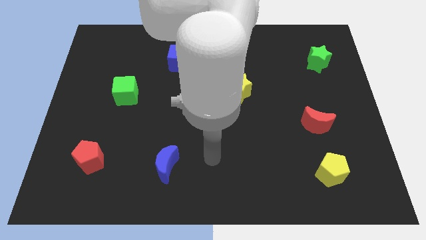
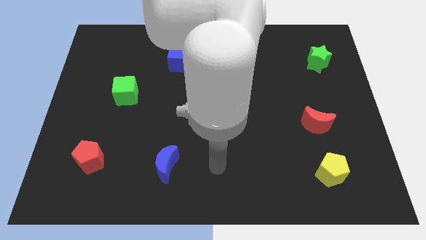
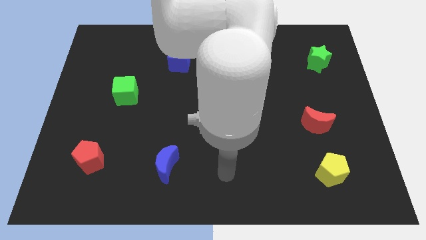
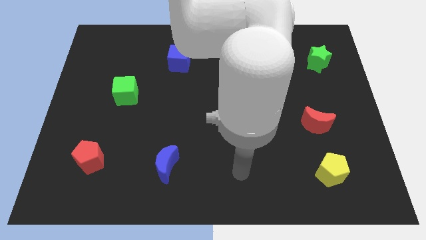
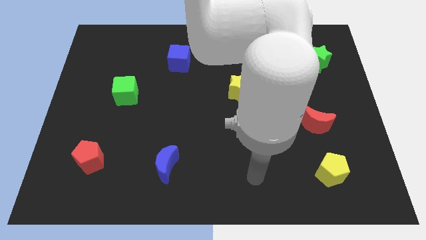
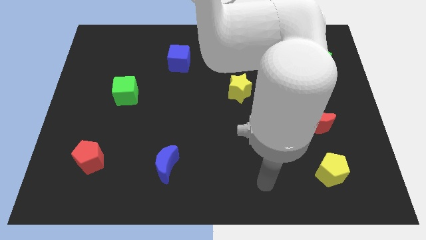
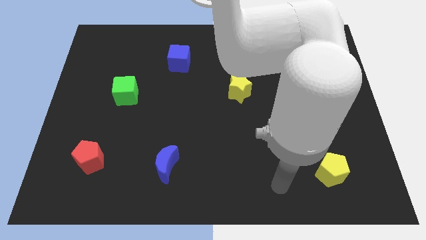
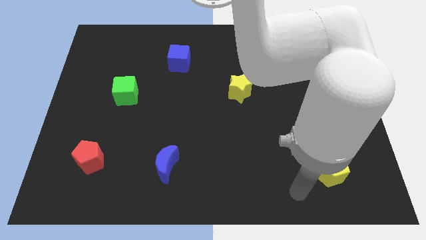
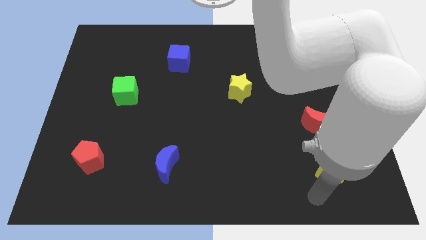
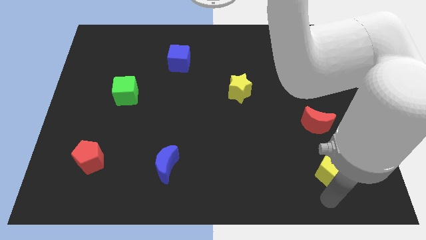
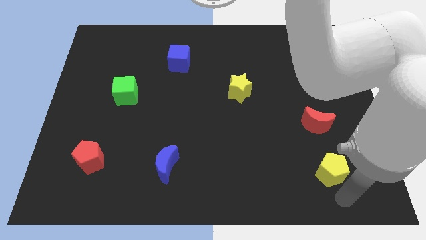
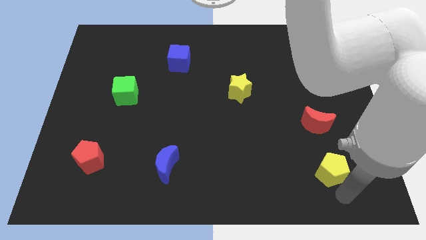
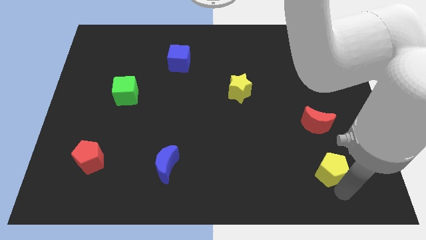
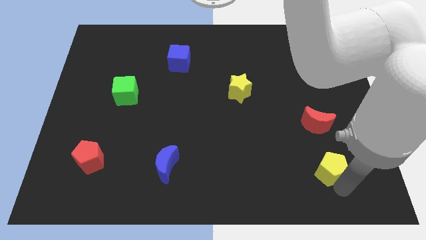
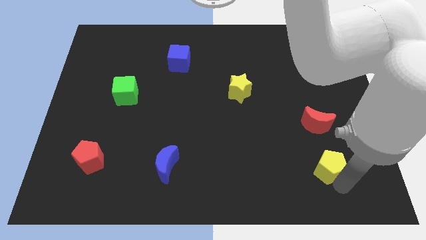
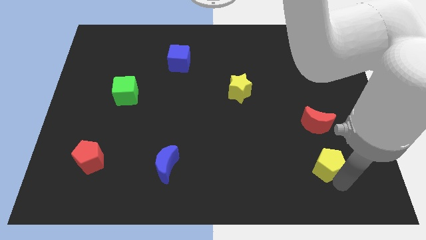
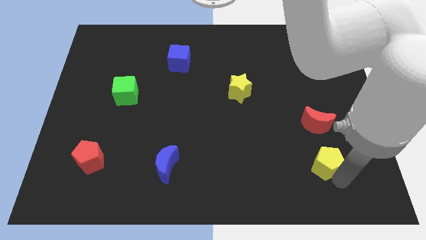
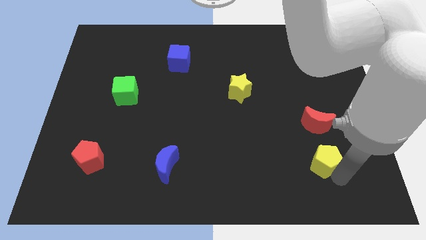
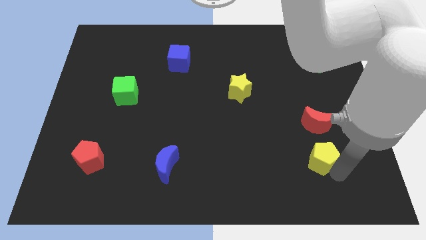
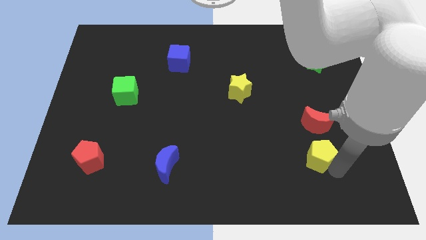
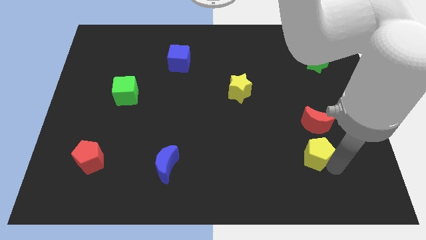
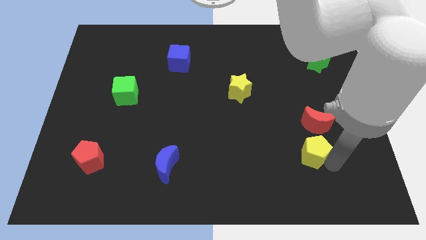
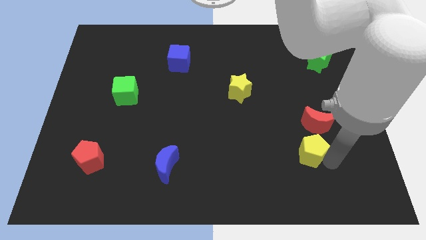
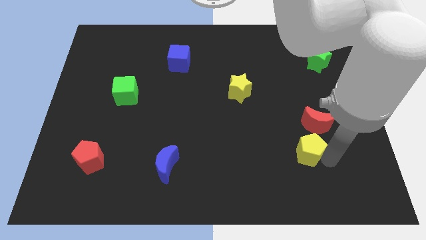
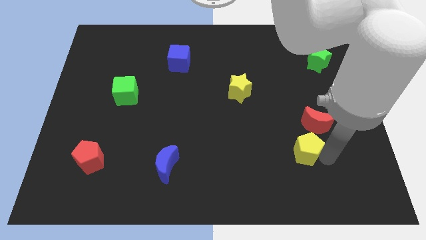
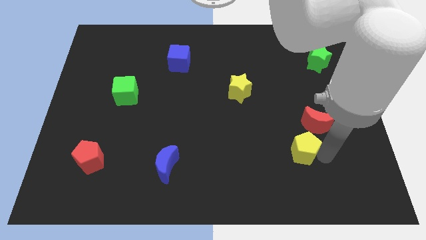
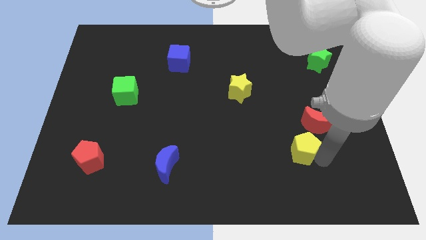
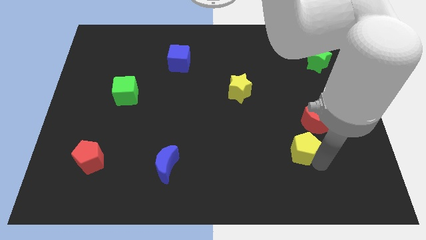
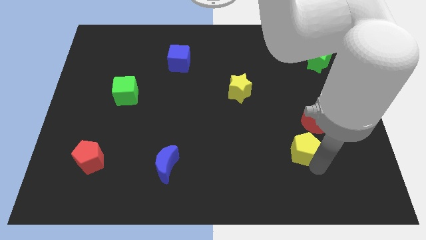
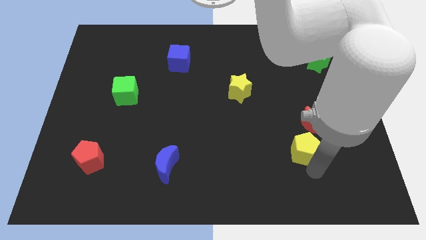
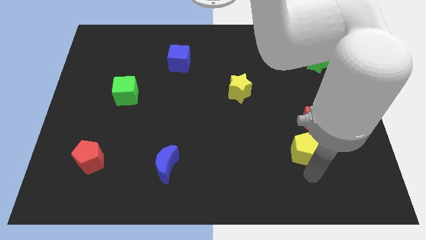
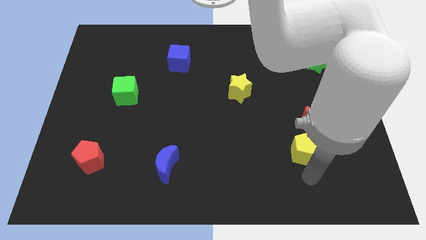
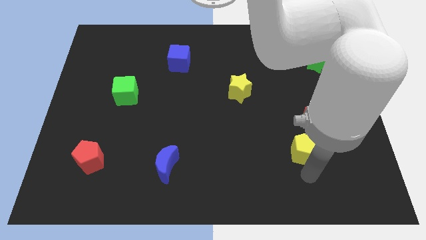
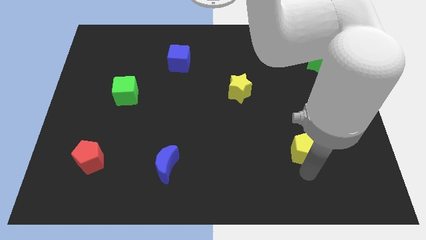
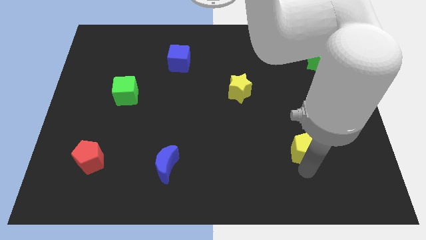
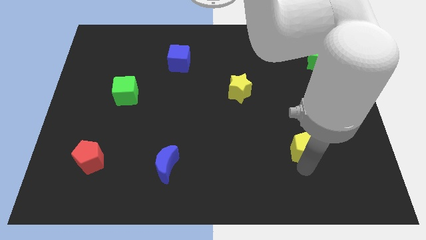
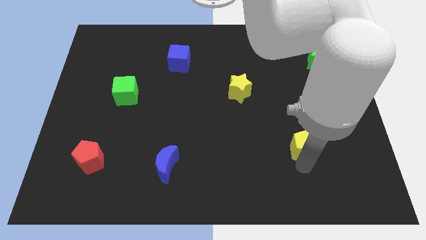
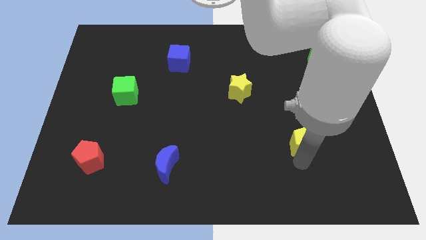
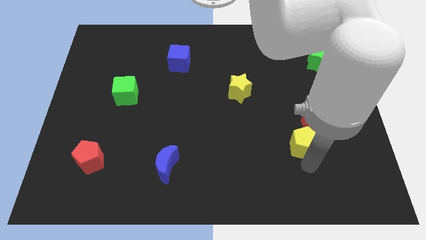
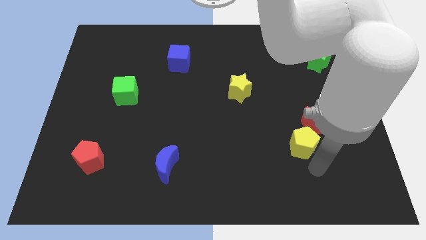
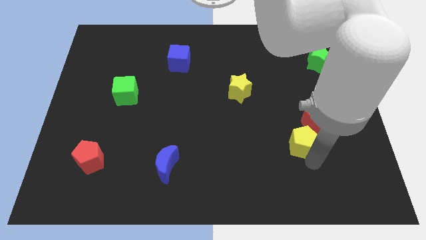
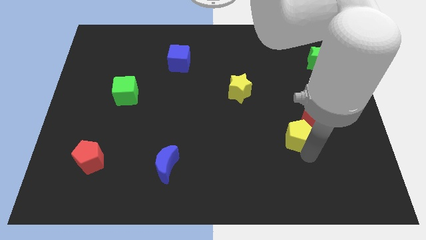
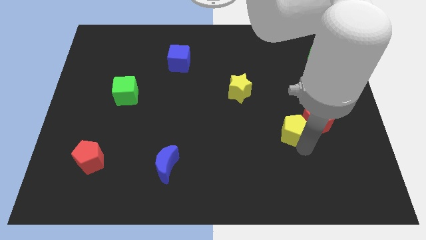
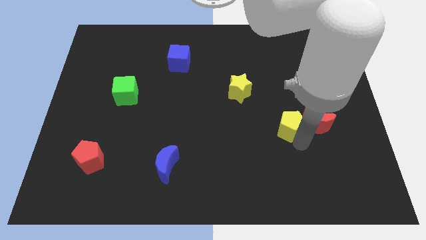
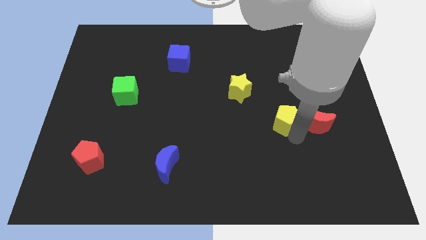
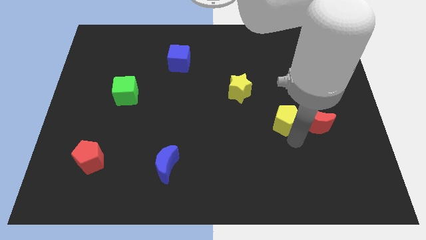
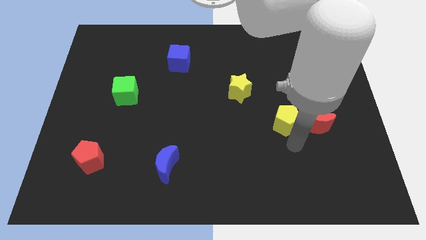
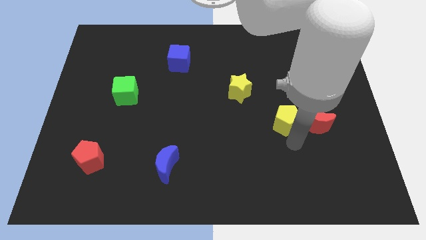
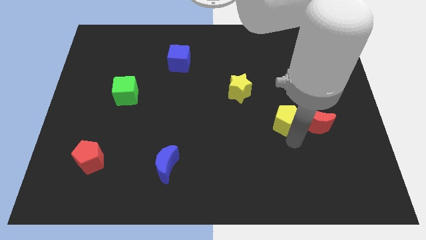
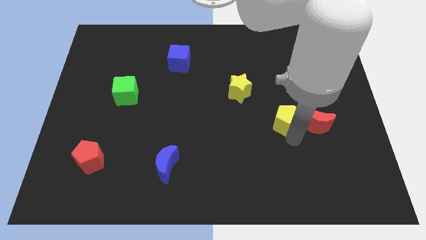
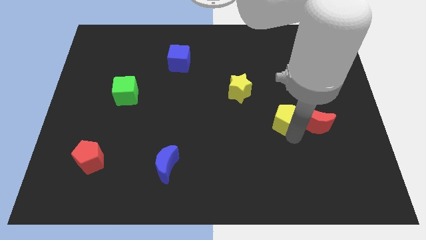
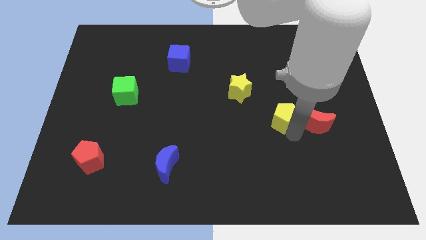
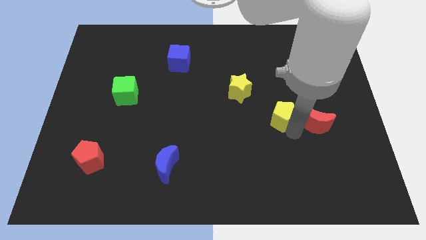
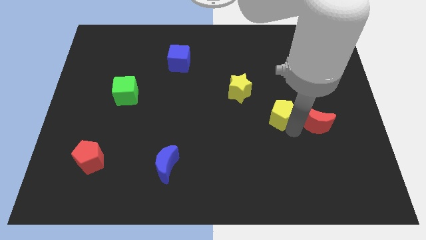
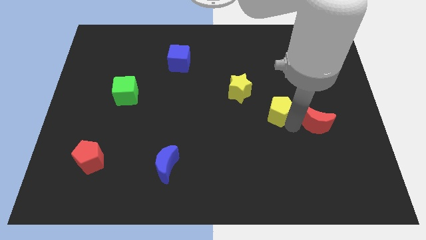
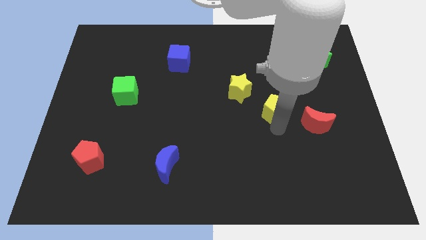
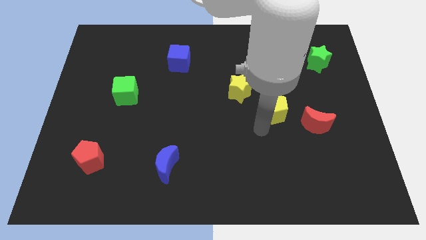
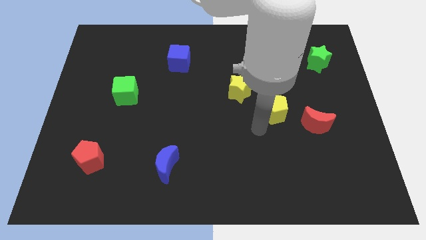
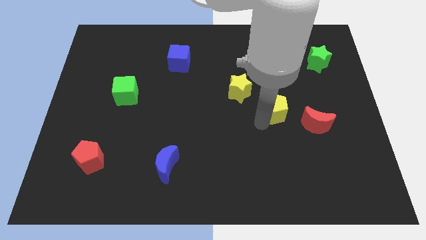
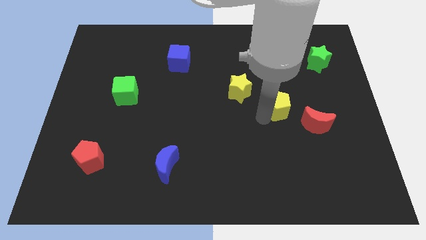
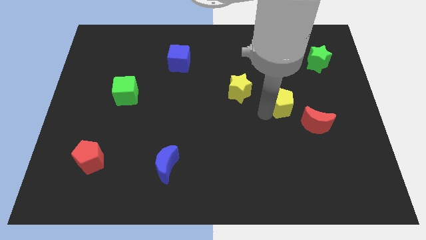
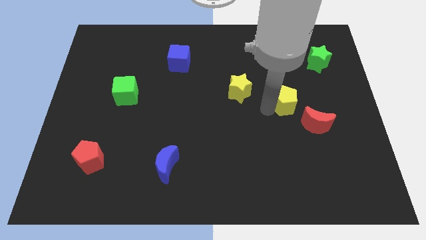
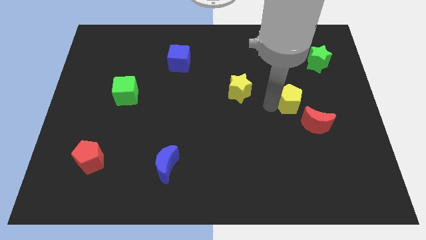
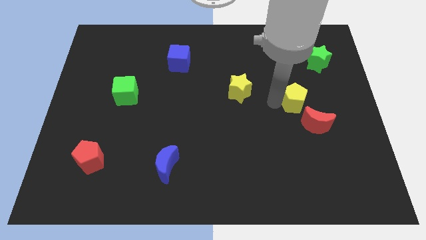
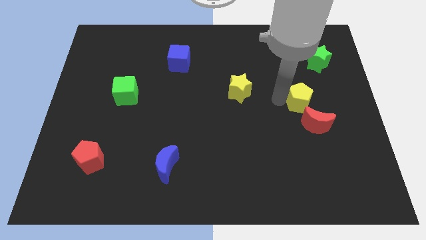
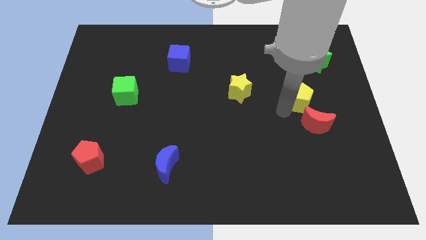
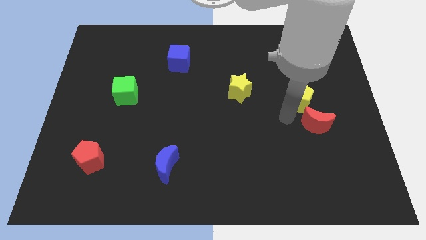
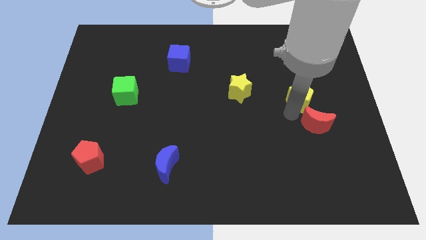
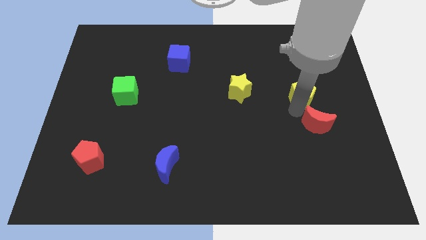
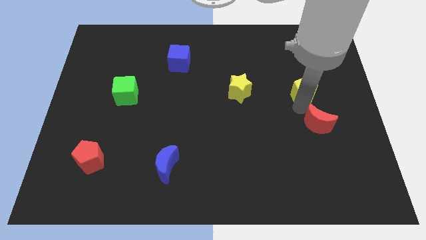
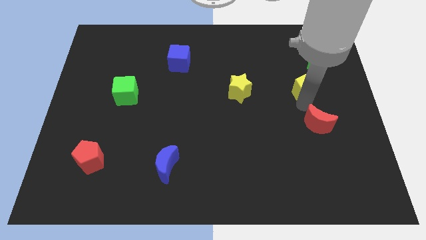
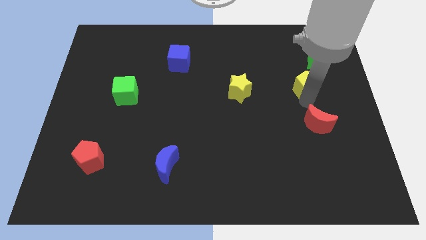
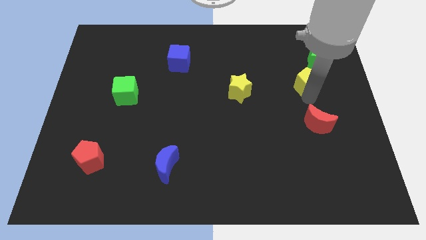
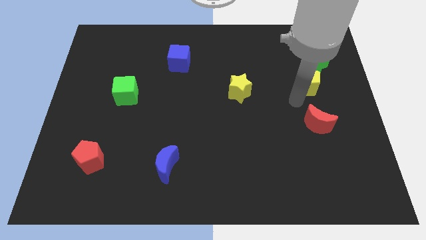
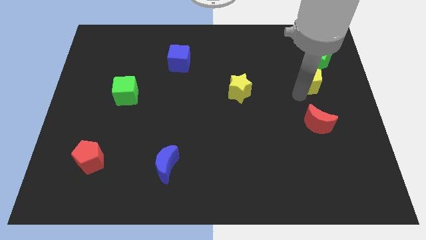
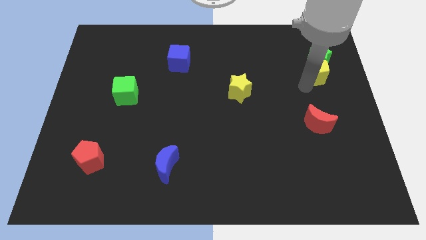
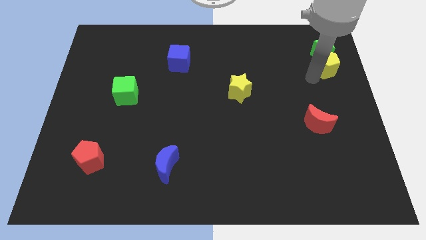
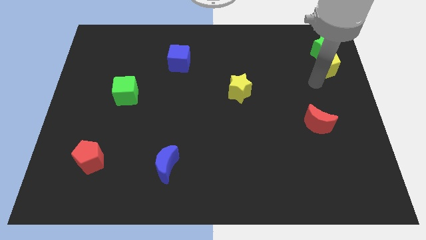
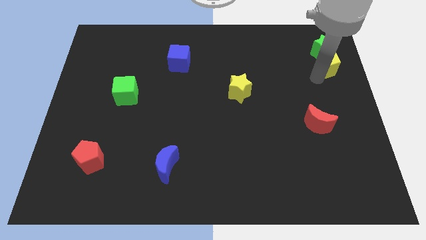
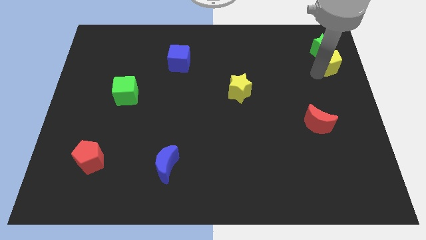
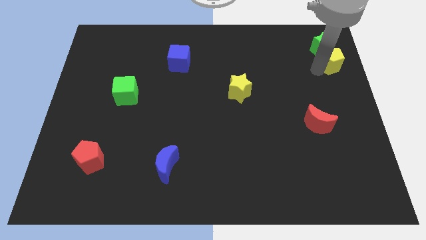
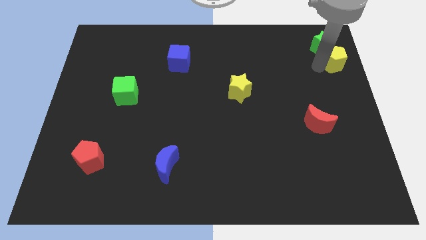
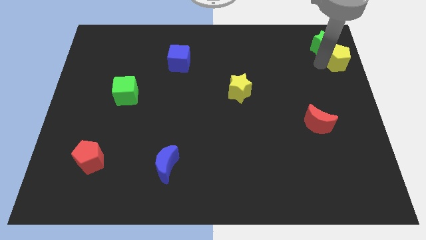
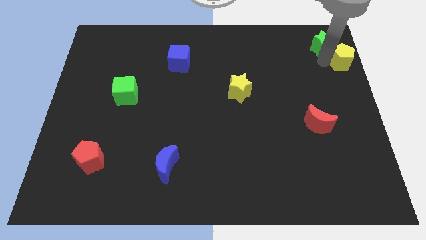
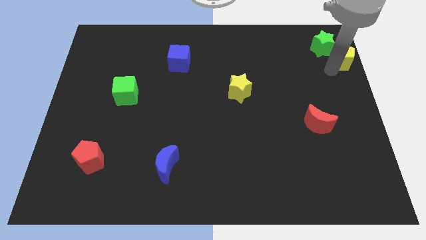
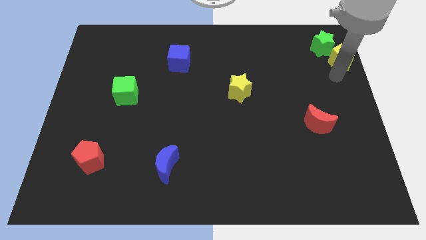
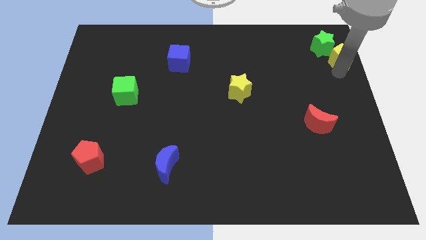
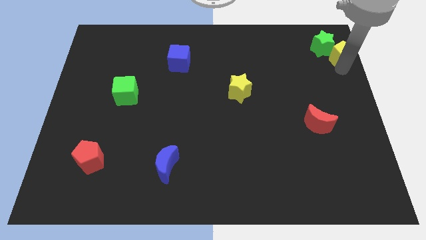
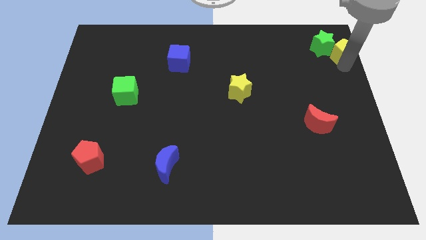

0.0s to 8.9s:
move the yellow pentagon to the upper right corner
